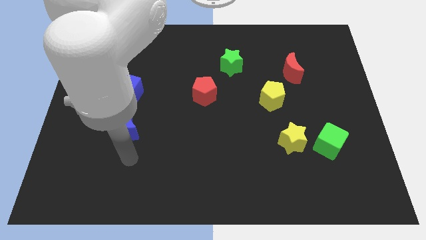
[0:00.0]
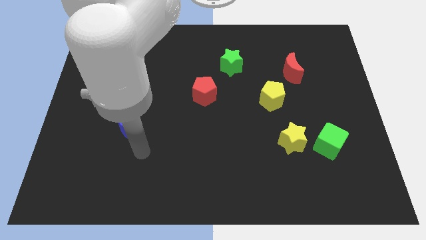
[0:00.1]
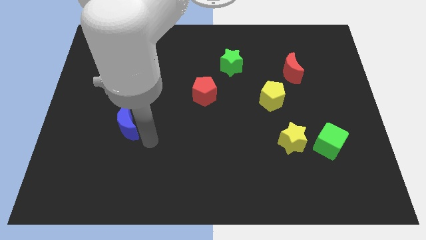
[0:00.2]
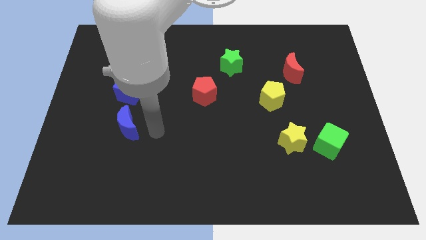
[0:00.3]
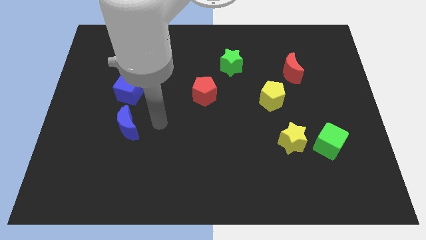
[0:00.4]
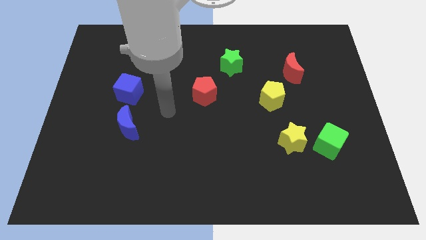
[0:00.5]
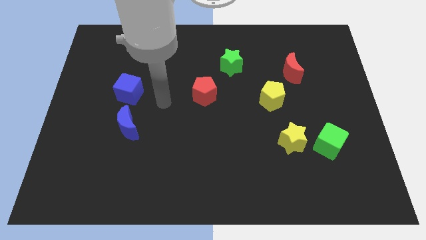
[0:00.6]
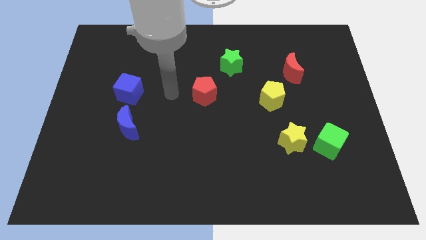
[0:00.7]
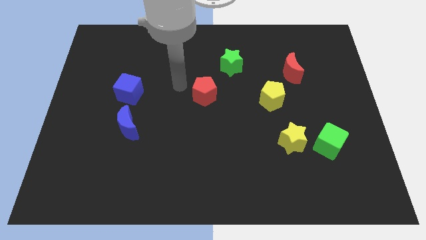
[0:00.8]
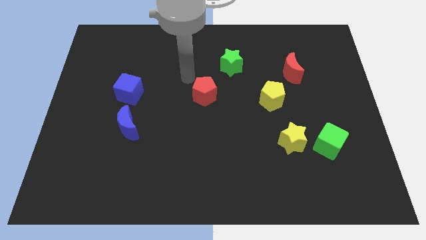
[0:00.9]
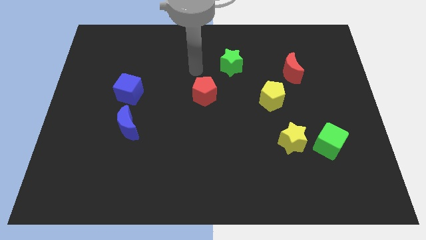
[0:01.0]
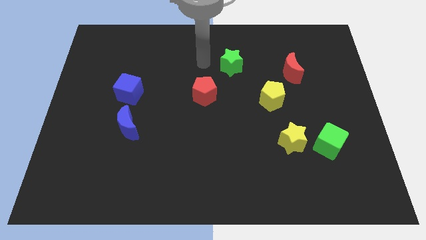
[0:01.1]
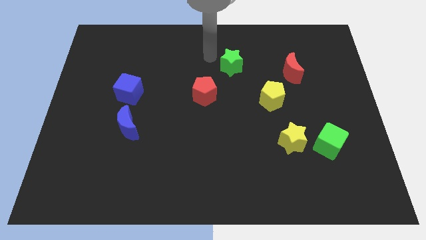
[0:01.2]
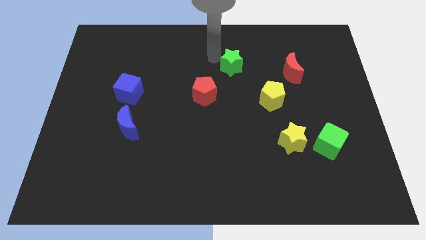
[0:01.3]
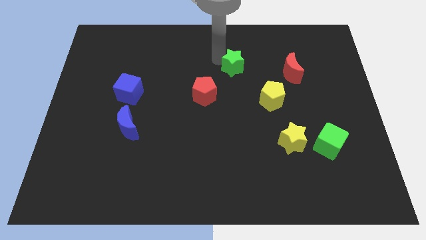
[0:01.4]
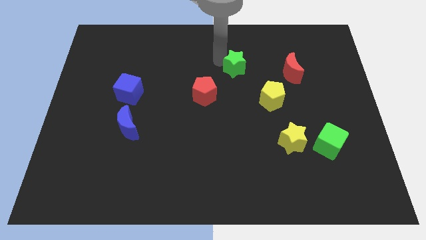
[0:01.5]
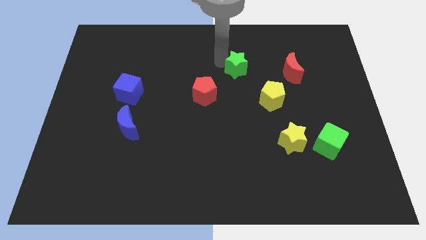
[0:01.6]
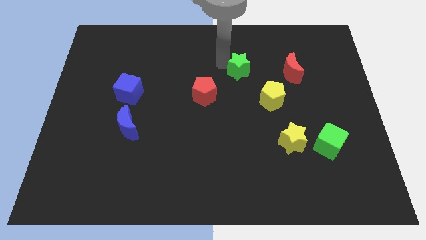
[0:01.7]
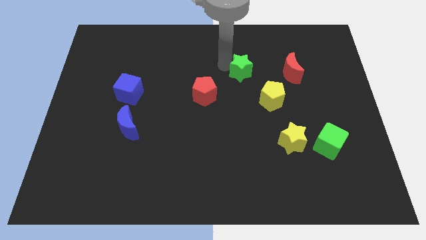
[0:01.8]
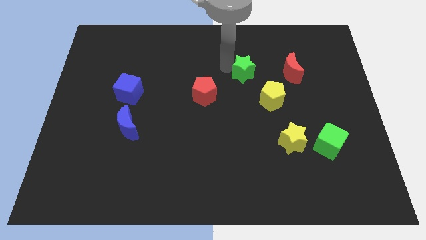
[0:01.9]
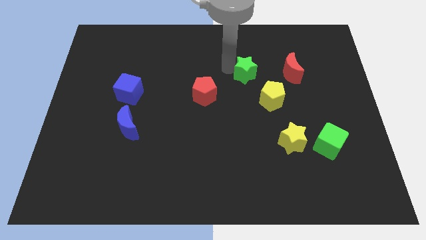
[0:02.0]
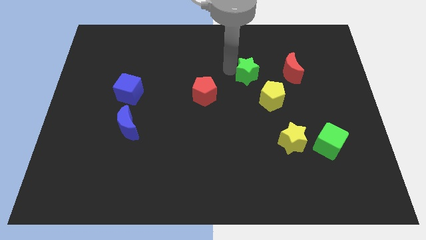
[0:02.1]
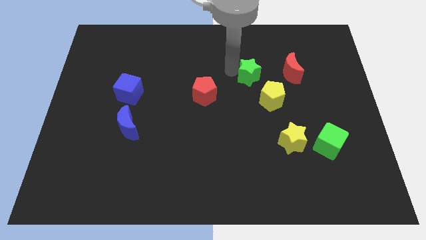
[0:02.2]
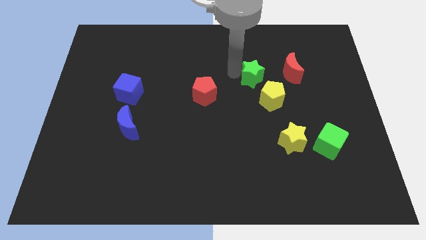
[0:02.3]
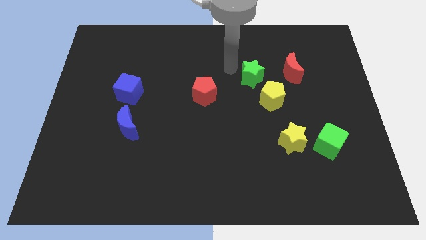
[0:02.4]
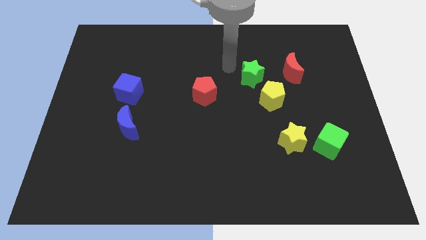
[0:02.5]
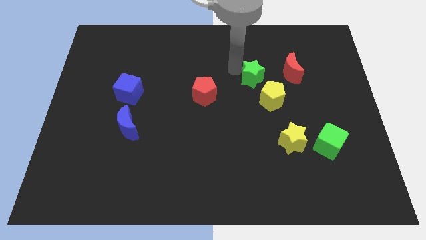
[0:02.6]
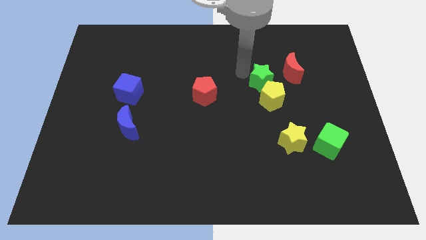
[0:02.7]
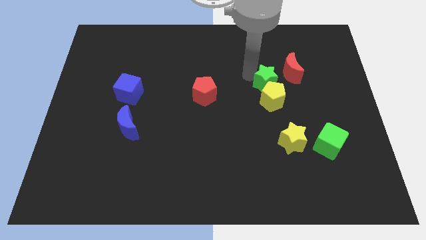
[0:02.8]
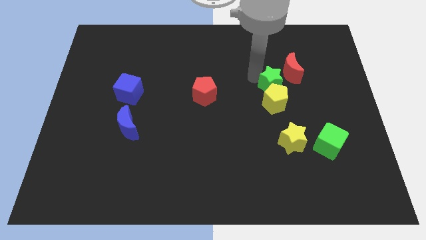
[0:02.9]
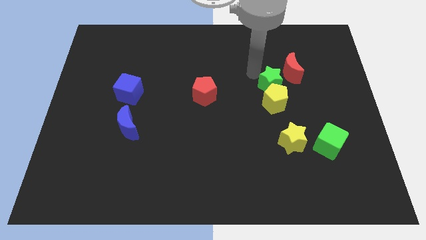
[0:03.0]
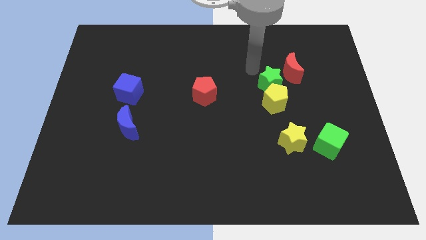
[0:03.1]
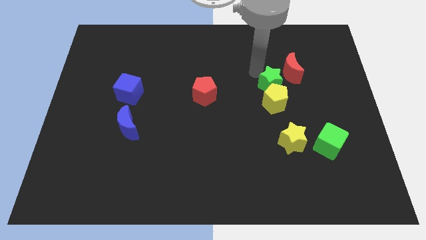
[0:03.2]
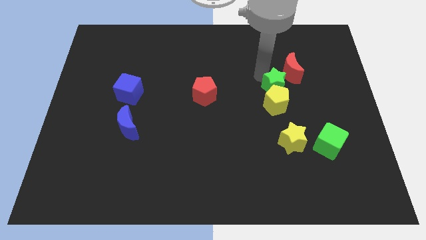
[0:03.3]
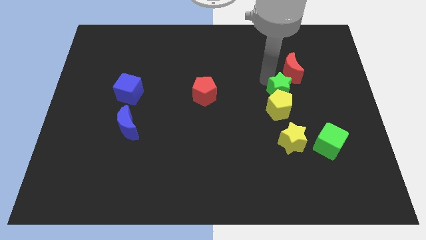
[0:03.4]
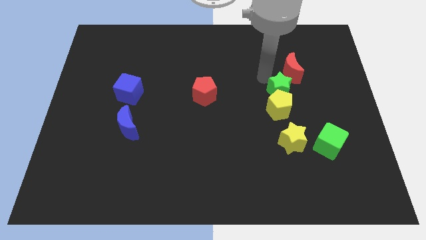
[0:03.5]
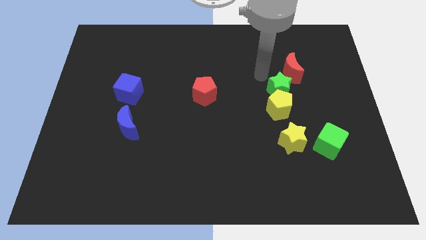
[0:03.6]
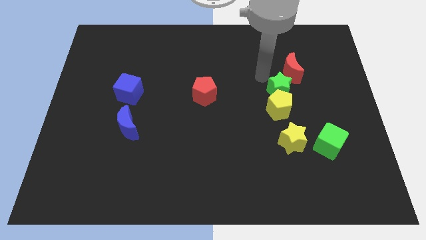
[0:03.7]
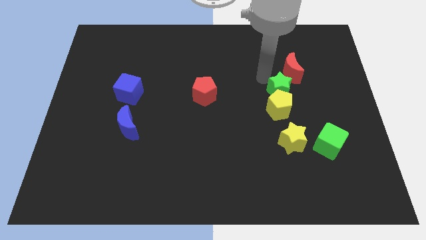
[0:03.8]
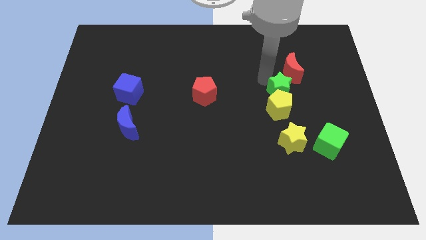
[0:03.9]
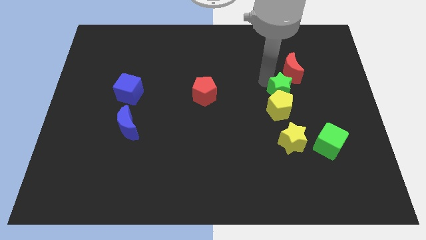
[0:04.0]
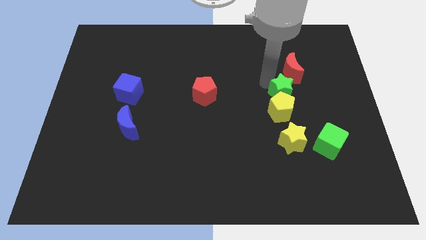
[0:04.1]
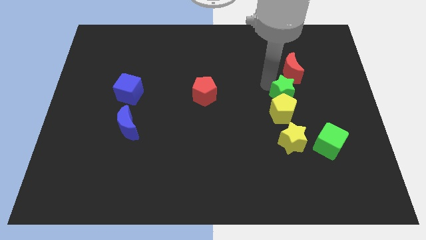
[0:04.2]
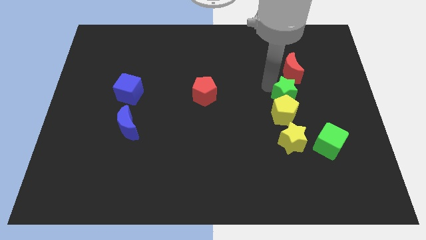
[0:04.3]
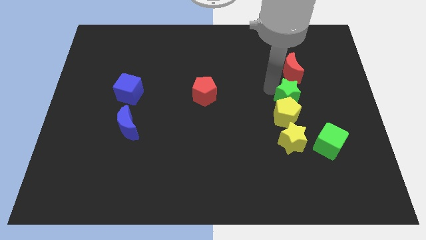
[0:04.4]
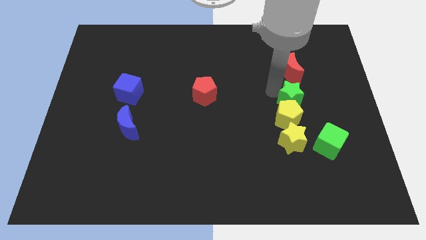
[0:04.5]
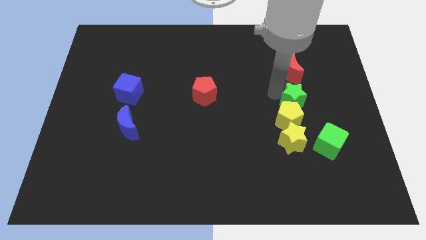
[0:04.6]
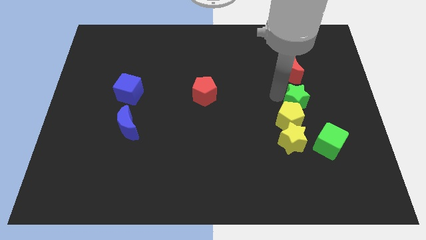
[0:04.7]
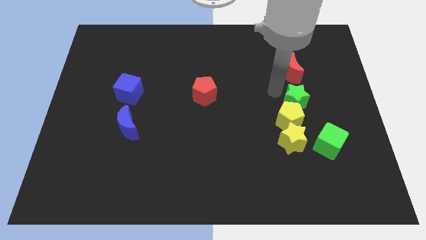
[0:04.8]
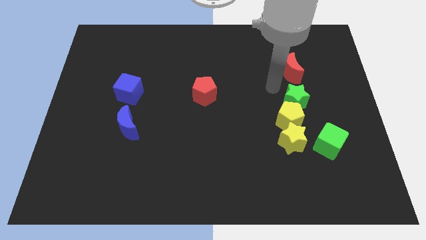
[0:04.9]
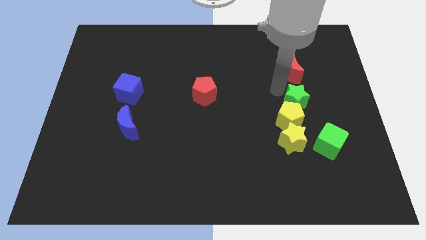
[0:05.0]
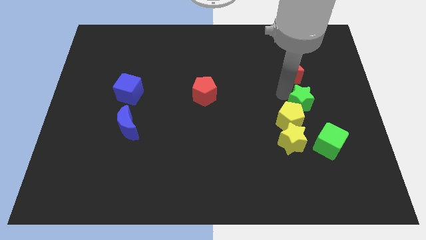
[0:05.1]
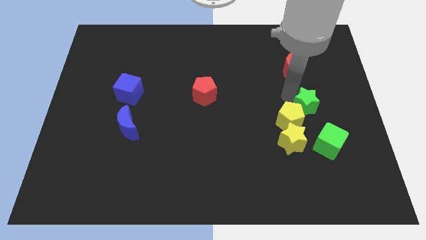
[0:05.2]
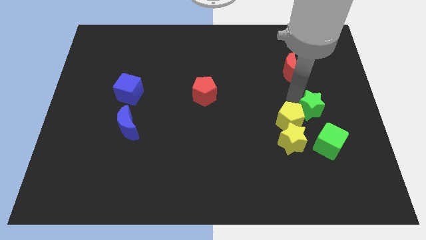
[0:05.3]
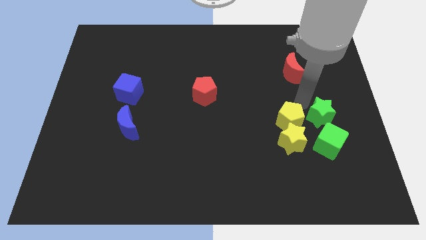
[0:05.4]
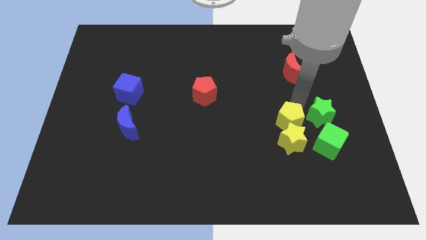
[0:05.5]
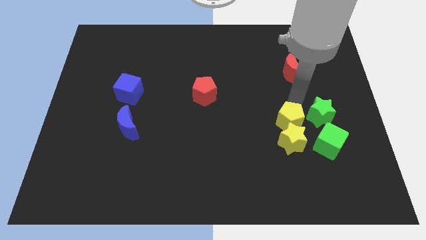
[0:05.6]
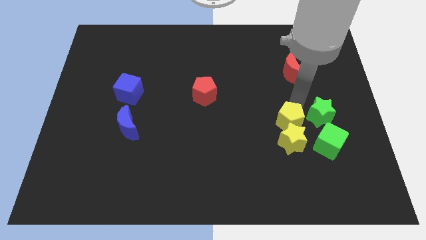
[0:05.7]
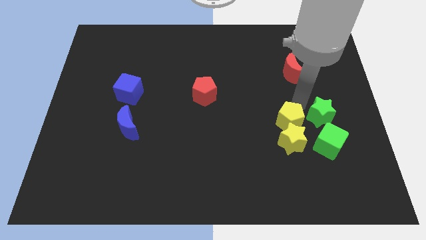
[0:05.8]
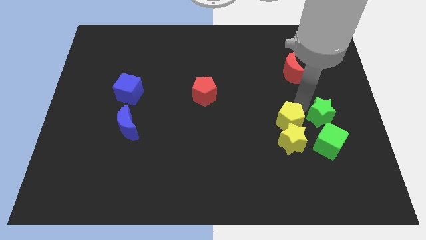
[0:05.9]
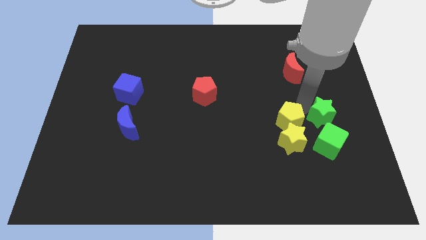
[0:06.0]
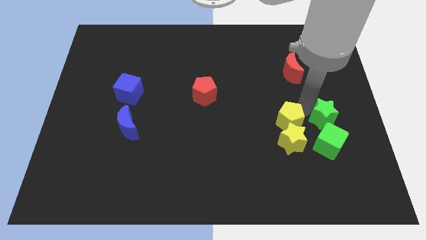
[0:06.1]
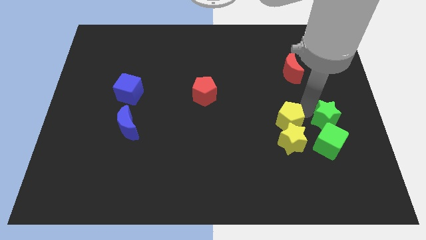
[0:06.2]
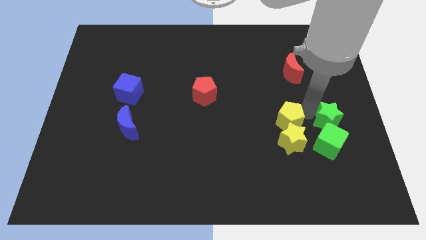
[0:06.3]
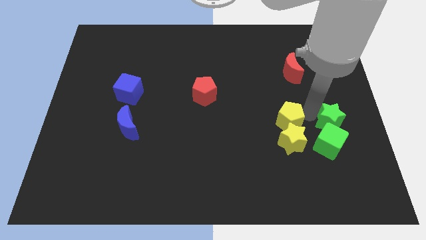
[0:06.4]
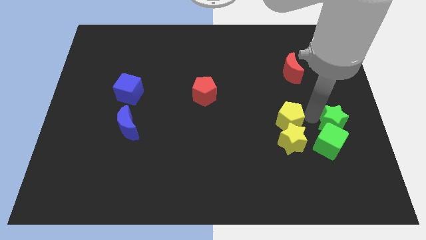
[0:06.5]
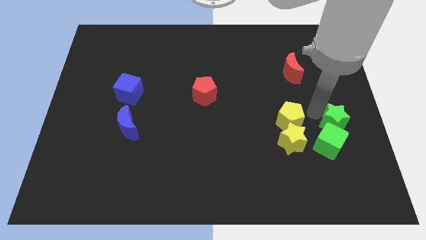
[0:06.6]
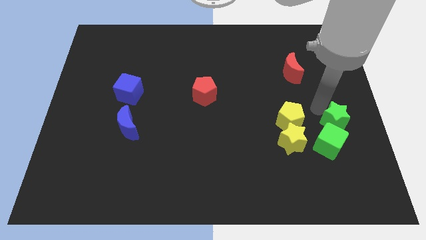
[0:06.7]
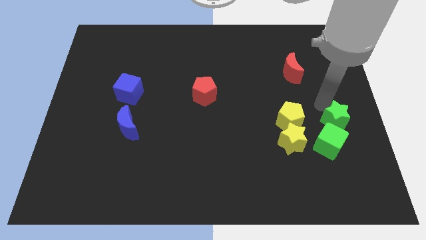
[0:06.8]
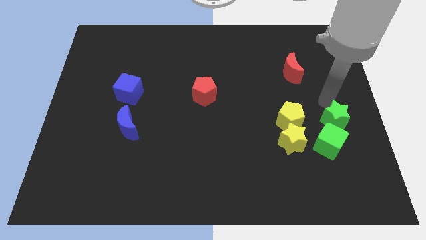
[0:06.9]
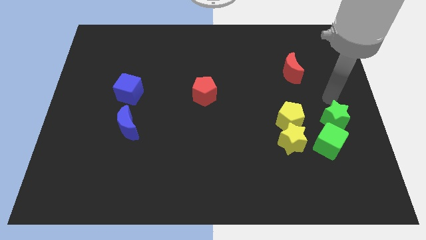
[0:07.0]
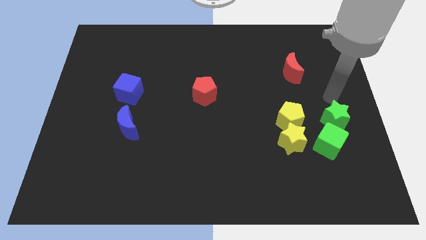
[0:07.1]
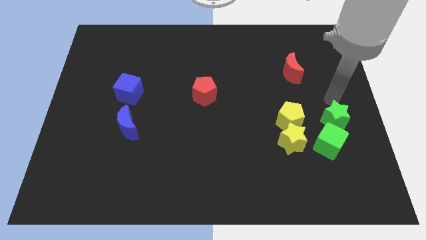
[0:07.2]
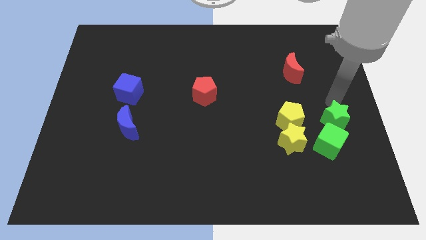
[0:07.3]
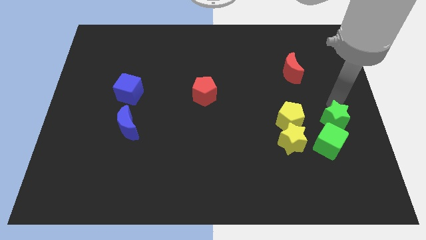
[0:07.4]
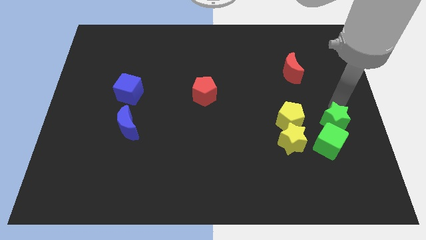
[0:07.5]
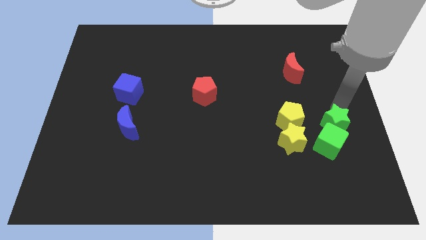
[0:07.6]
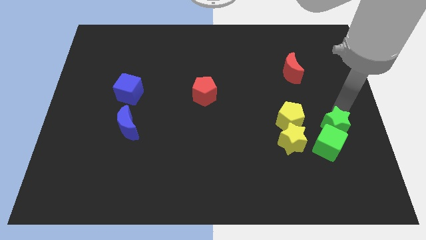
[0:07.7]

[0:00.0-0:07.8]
move the green star right of the yellow star

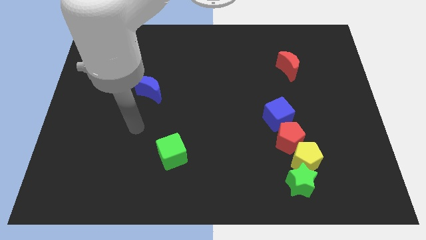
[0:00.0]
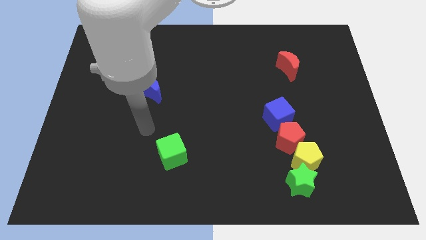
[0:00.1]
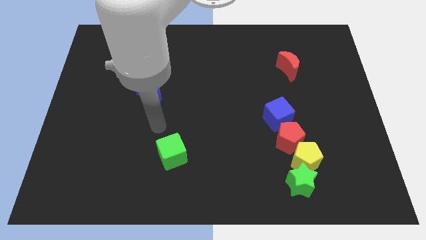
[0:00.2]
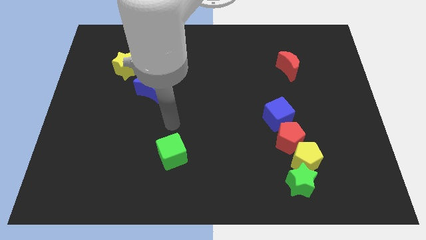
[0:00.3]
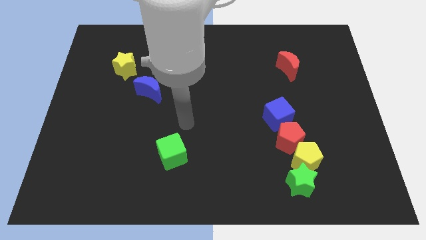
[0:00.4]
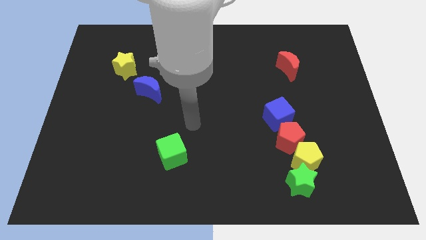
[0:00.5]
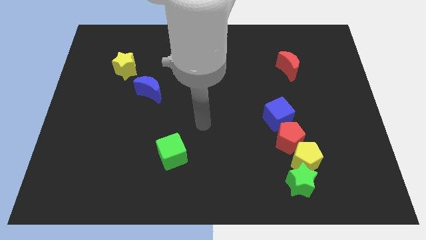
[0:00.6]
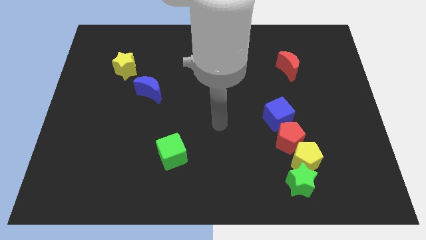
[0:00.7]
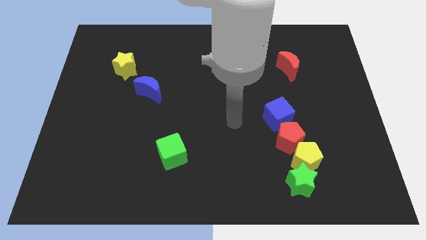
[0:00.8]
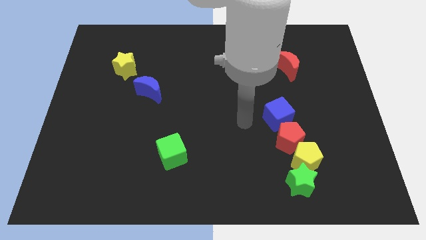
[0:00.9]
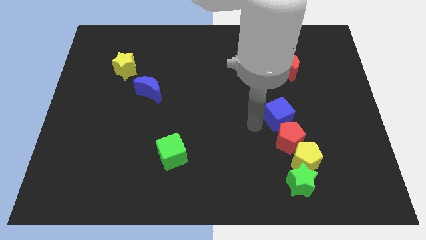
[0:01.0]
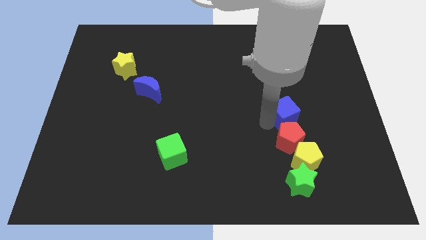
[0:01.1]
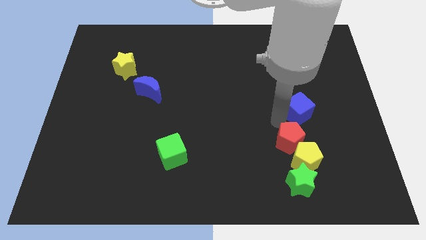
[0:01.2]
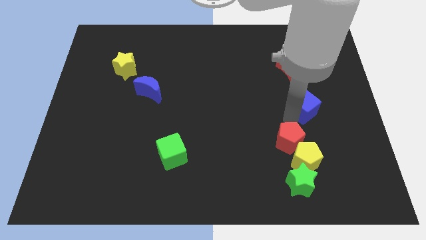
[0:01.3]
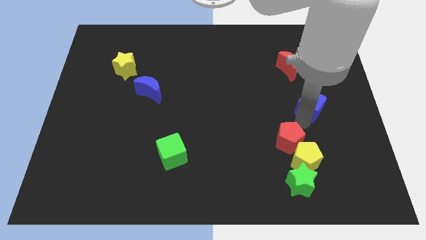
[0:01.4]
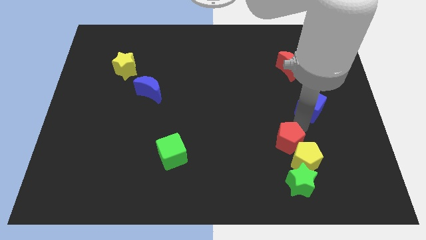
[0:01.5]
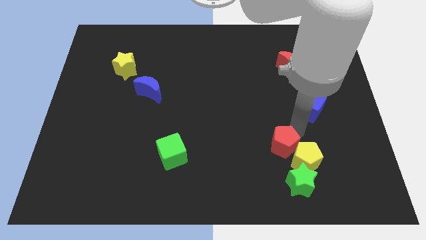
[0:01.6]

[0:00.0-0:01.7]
put the red pentagon to the top left side of the green star
